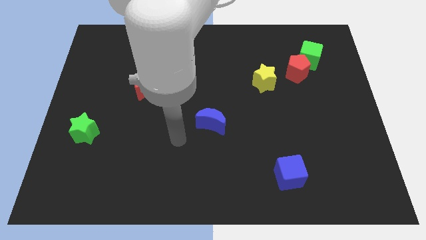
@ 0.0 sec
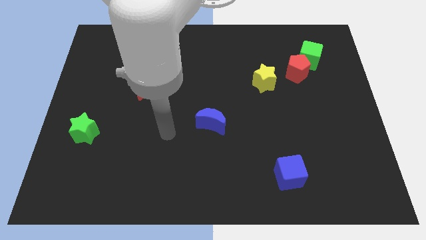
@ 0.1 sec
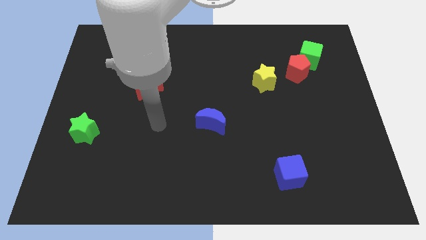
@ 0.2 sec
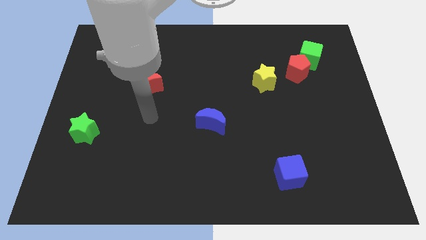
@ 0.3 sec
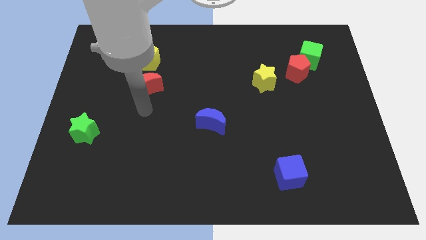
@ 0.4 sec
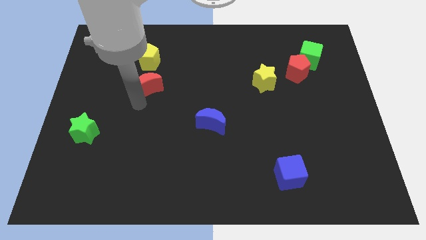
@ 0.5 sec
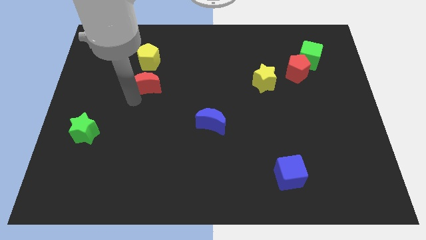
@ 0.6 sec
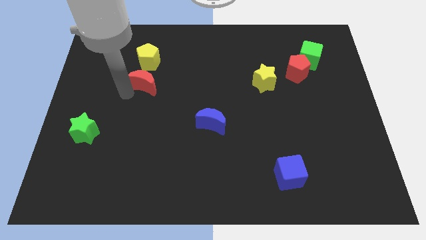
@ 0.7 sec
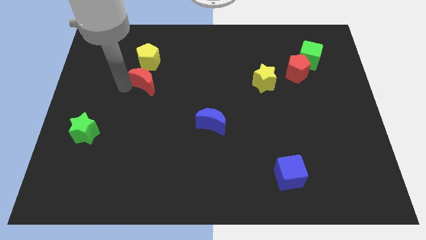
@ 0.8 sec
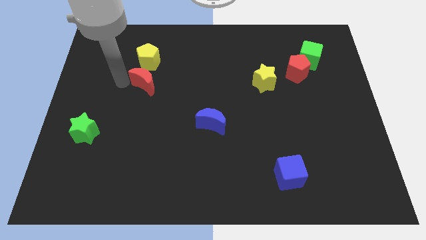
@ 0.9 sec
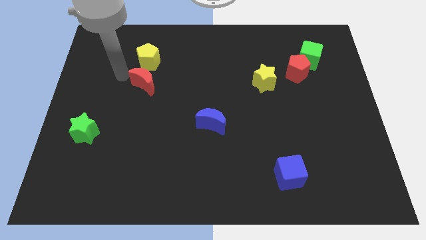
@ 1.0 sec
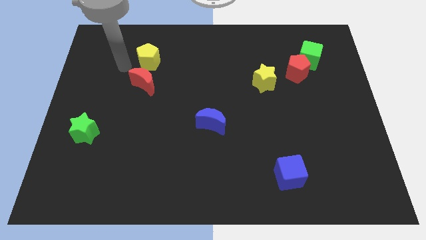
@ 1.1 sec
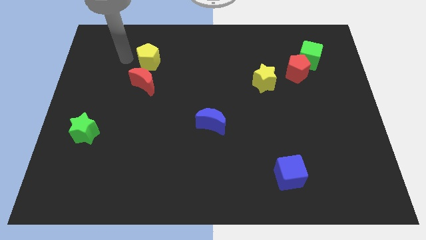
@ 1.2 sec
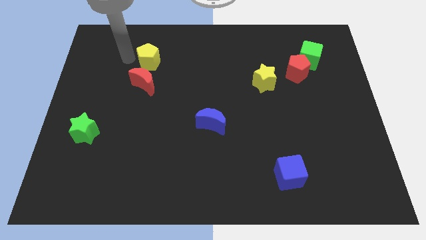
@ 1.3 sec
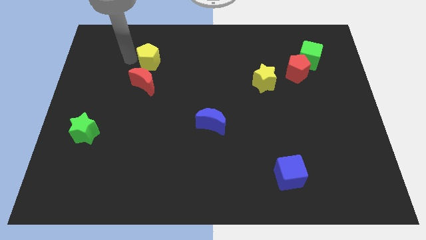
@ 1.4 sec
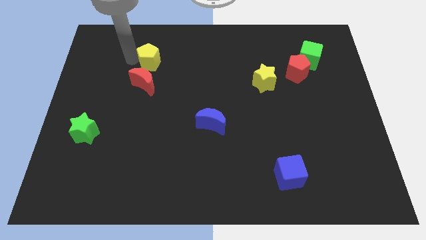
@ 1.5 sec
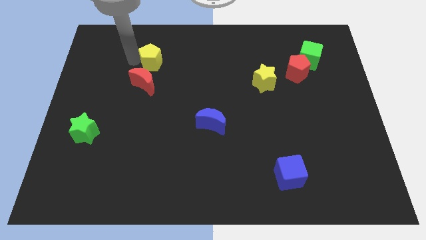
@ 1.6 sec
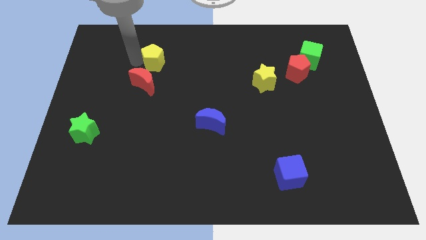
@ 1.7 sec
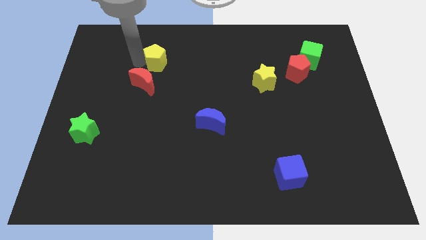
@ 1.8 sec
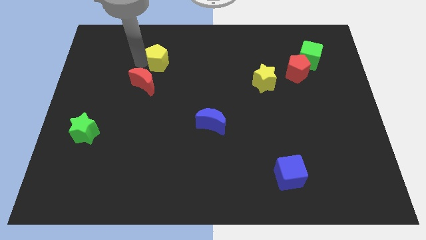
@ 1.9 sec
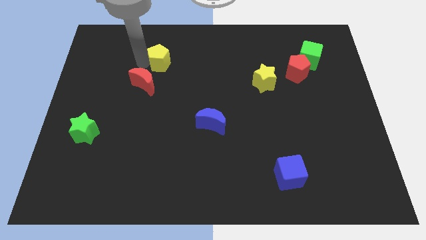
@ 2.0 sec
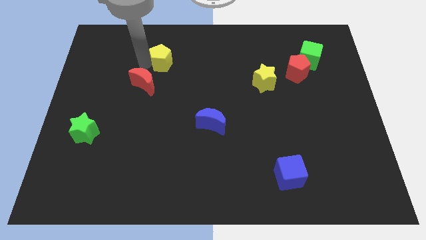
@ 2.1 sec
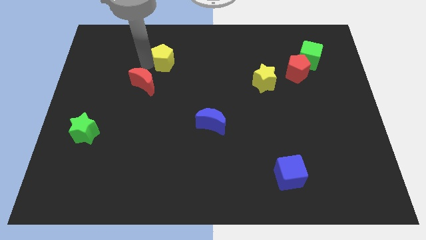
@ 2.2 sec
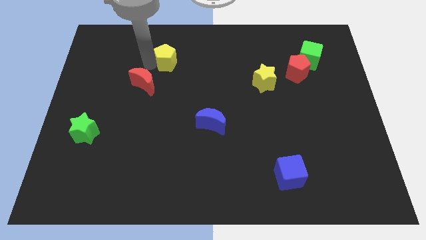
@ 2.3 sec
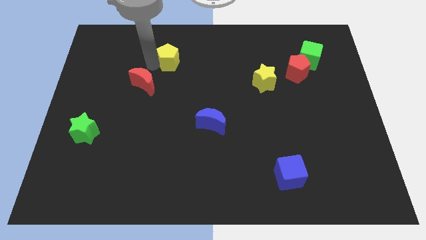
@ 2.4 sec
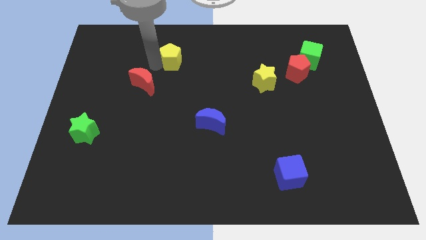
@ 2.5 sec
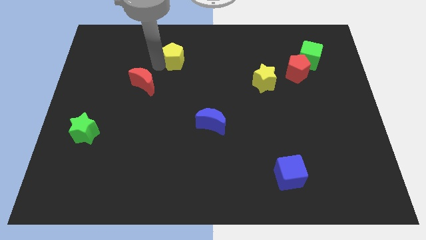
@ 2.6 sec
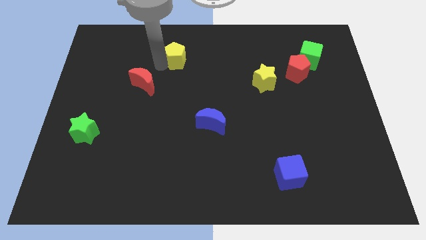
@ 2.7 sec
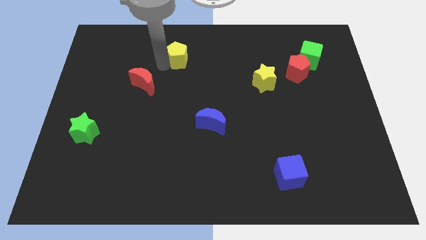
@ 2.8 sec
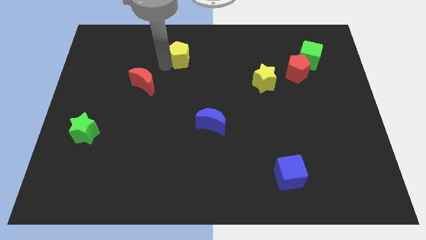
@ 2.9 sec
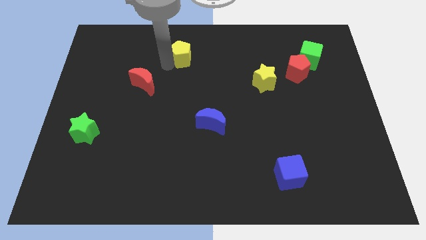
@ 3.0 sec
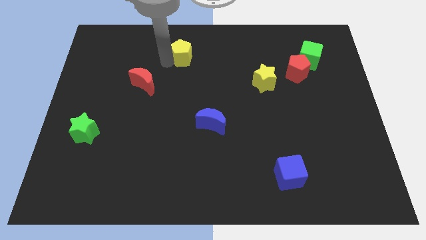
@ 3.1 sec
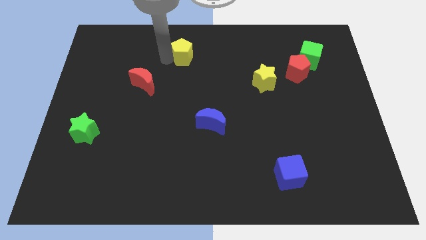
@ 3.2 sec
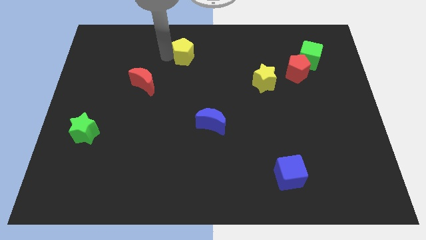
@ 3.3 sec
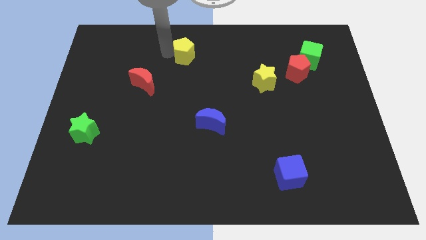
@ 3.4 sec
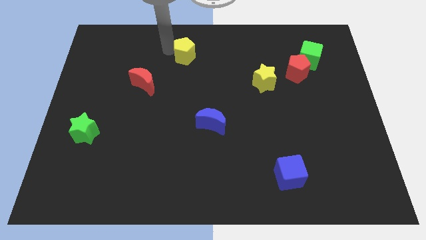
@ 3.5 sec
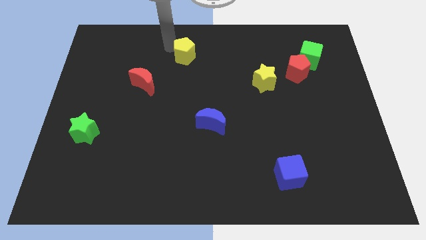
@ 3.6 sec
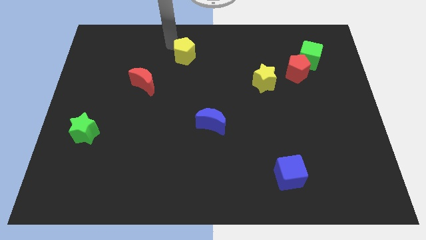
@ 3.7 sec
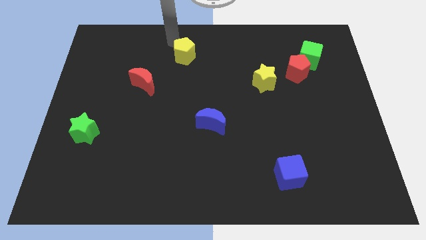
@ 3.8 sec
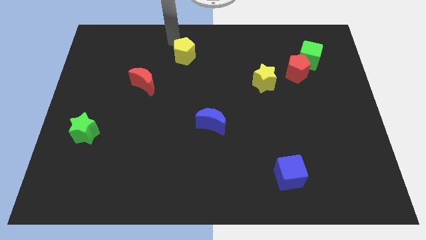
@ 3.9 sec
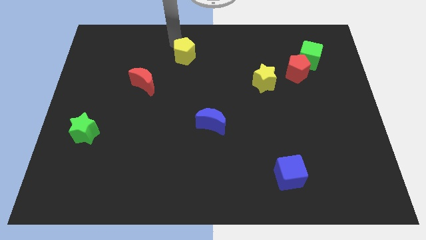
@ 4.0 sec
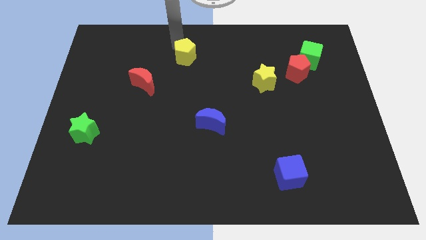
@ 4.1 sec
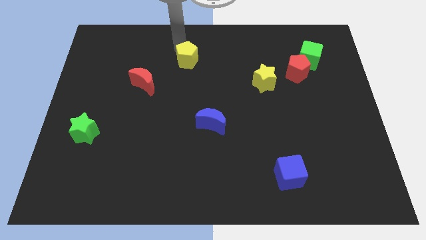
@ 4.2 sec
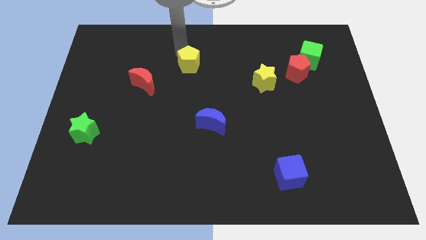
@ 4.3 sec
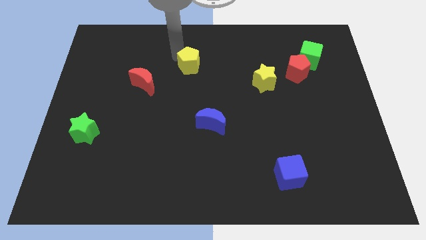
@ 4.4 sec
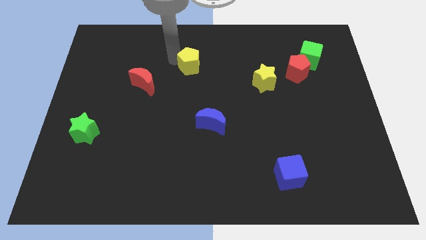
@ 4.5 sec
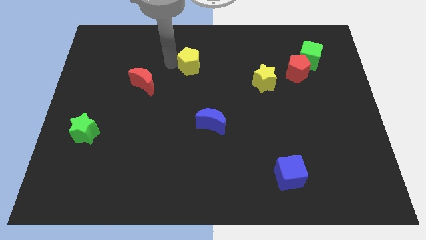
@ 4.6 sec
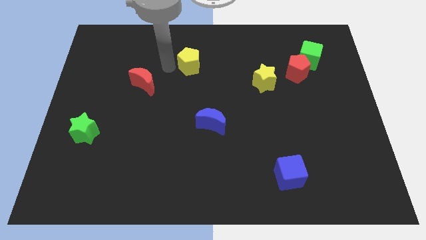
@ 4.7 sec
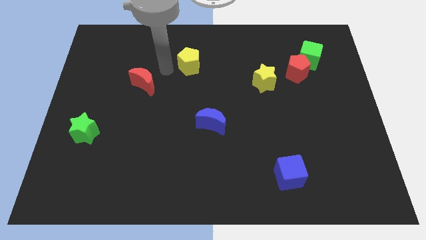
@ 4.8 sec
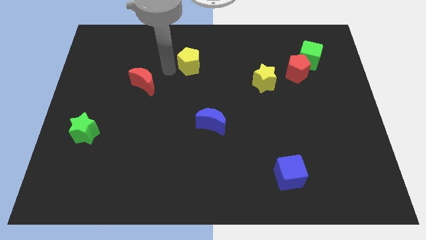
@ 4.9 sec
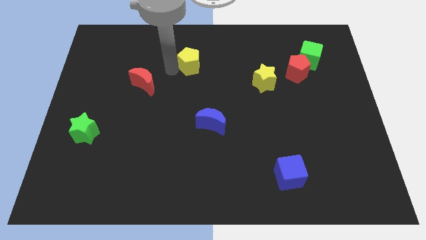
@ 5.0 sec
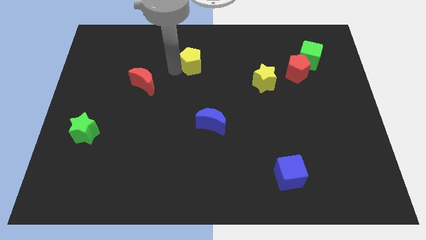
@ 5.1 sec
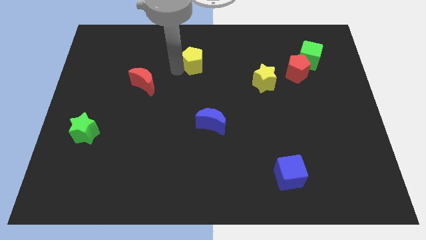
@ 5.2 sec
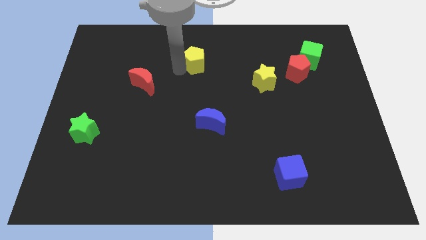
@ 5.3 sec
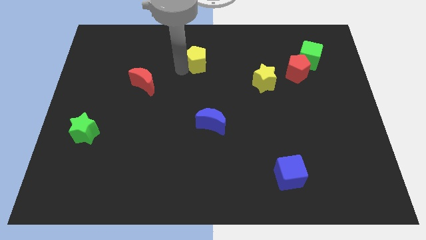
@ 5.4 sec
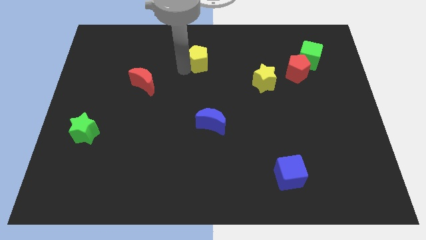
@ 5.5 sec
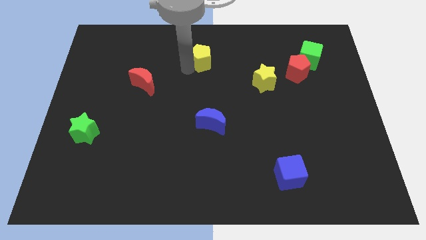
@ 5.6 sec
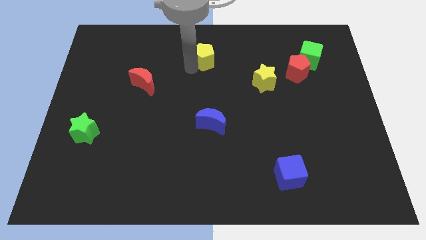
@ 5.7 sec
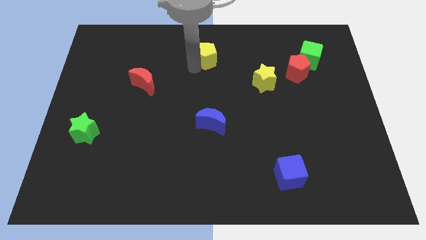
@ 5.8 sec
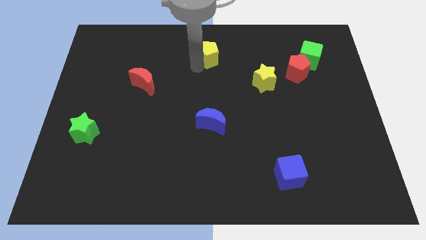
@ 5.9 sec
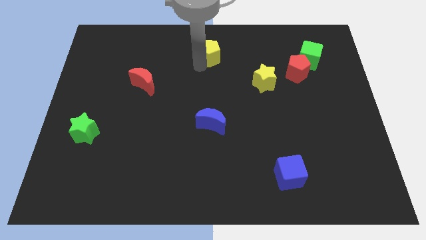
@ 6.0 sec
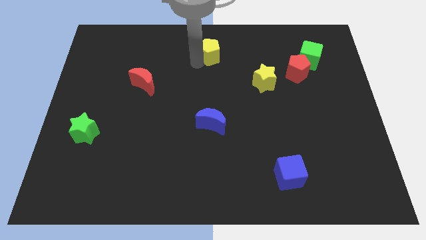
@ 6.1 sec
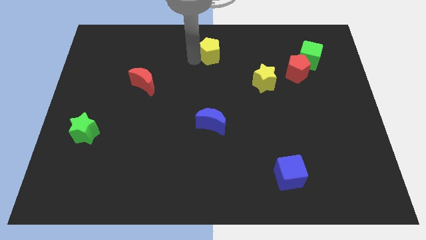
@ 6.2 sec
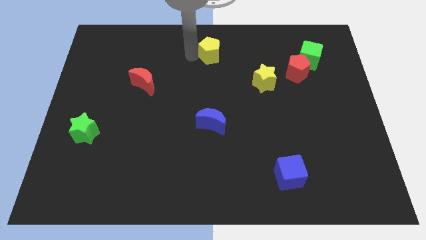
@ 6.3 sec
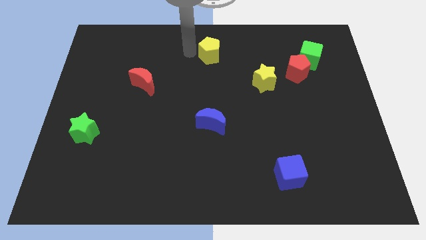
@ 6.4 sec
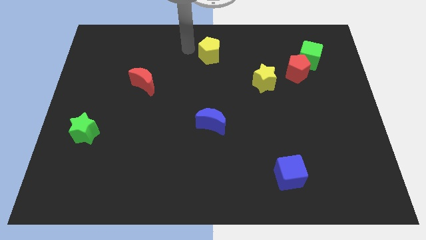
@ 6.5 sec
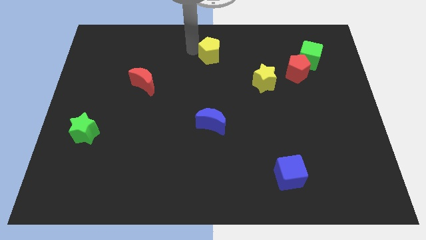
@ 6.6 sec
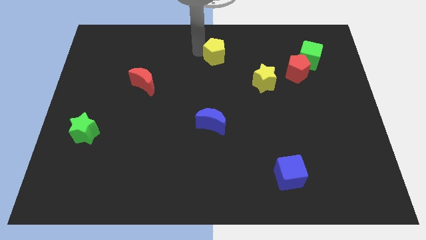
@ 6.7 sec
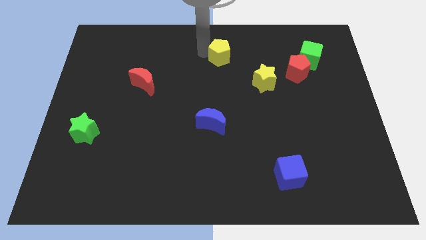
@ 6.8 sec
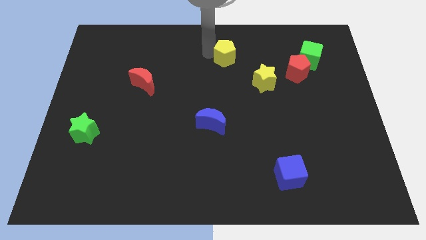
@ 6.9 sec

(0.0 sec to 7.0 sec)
move the yellow pentagon to the right

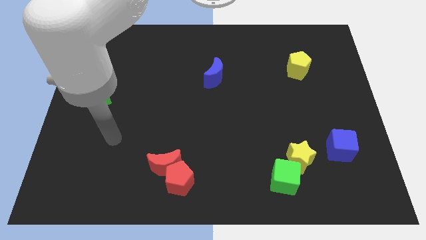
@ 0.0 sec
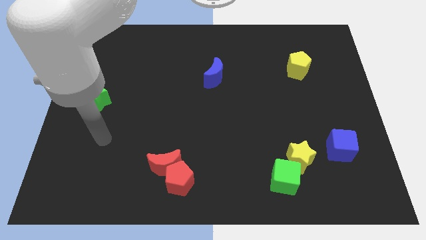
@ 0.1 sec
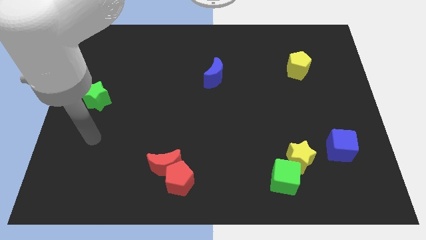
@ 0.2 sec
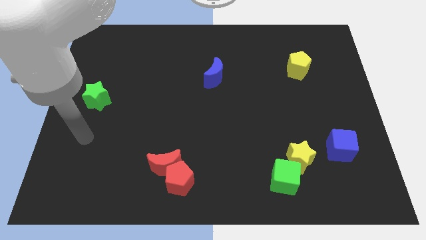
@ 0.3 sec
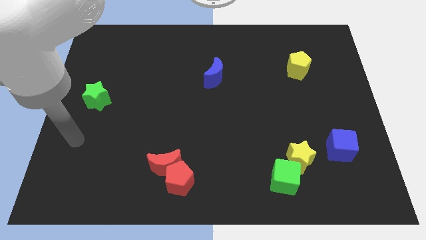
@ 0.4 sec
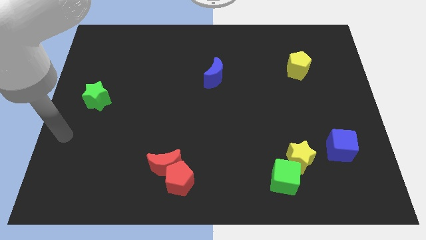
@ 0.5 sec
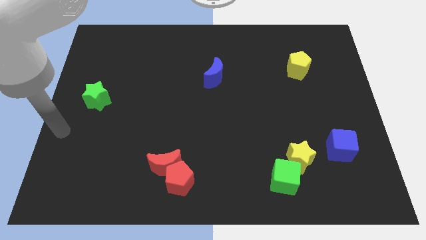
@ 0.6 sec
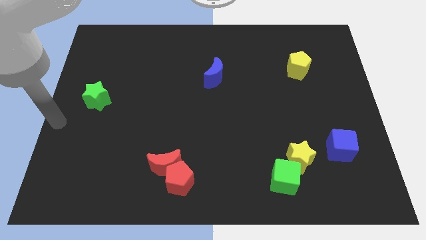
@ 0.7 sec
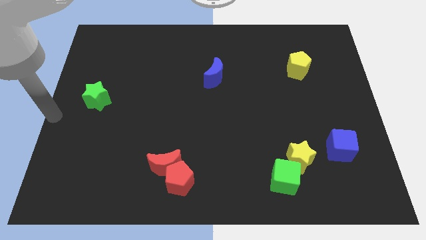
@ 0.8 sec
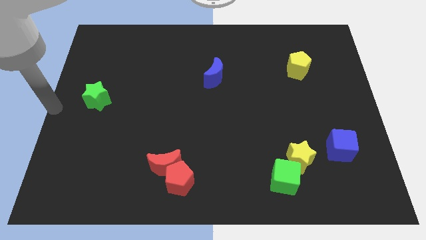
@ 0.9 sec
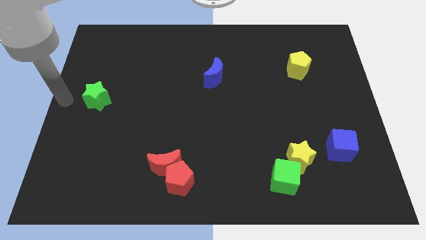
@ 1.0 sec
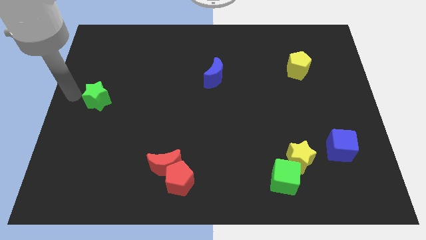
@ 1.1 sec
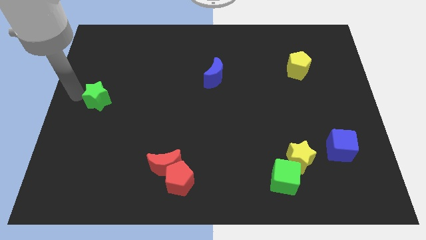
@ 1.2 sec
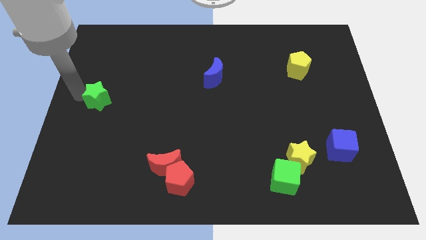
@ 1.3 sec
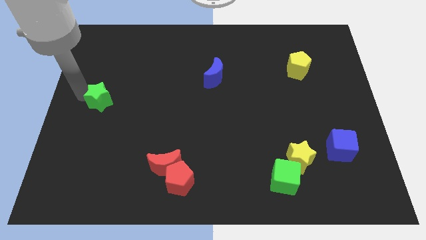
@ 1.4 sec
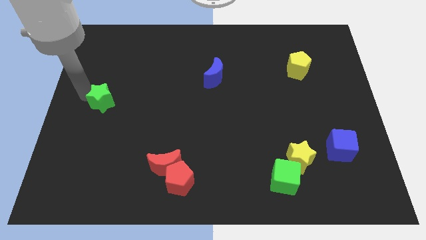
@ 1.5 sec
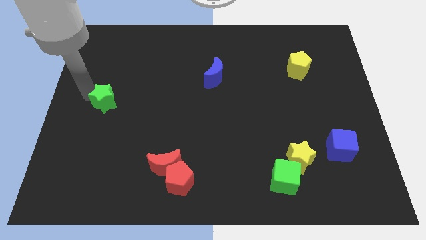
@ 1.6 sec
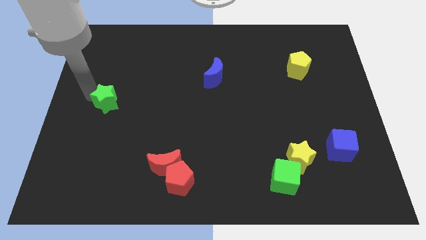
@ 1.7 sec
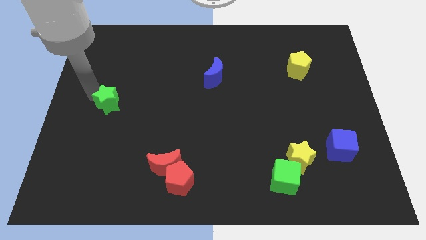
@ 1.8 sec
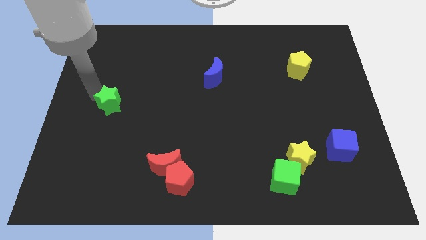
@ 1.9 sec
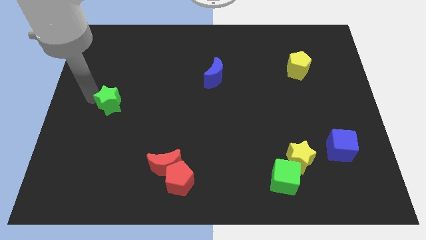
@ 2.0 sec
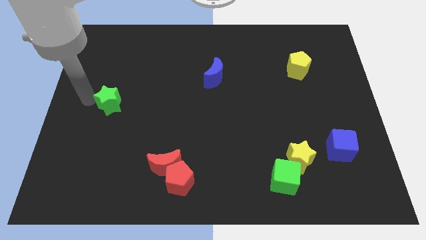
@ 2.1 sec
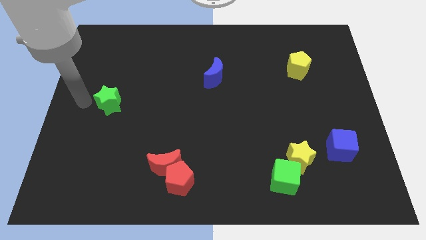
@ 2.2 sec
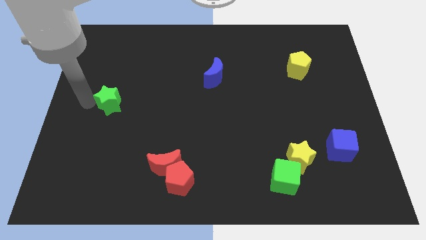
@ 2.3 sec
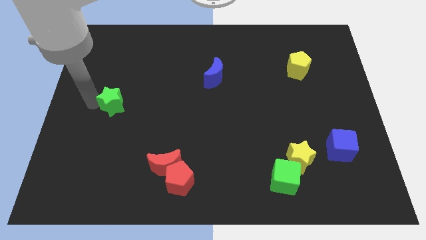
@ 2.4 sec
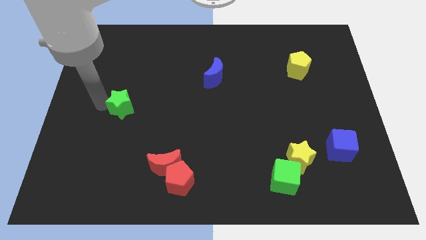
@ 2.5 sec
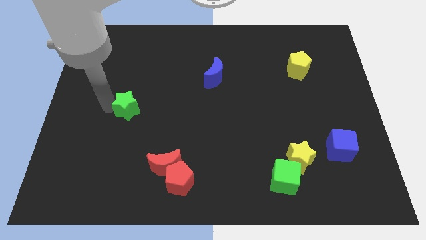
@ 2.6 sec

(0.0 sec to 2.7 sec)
slide the green star right slightly
